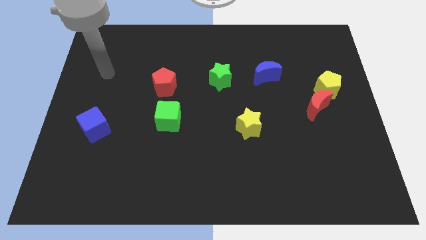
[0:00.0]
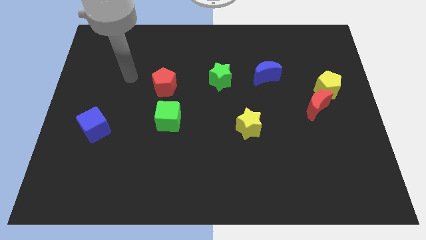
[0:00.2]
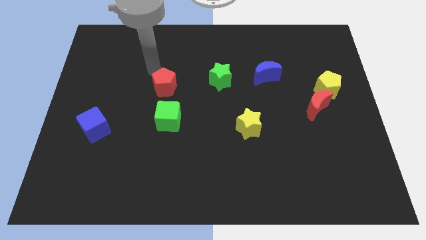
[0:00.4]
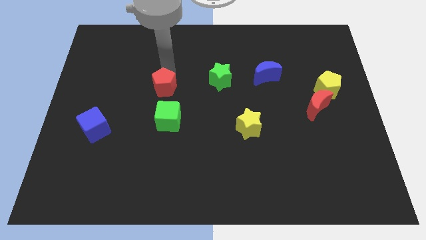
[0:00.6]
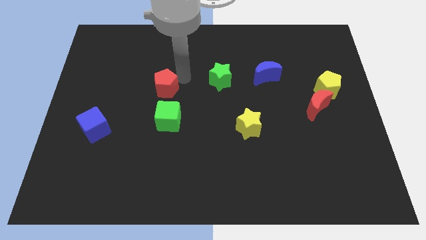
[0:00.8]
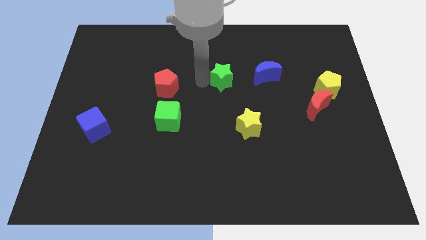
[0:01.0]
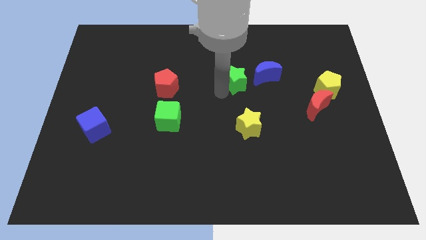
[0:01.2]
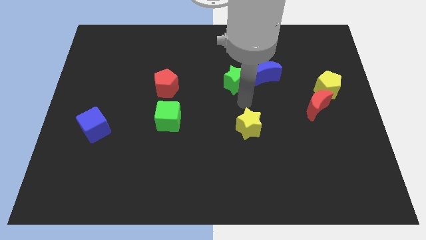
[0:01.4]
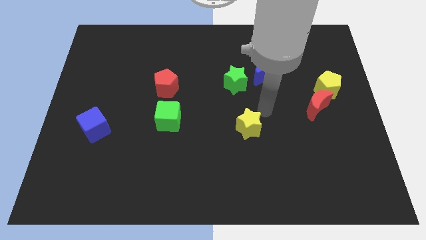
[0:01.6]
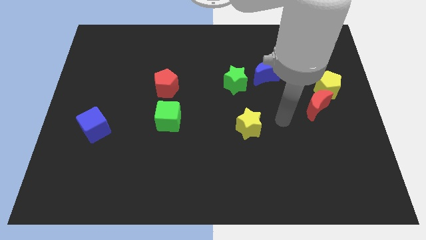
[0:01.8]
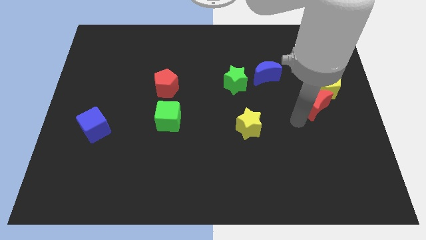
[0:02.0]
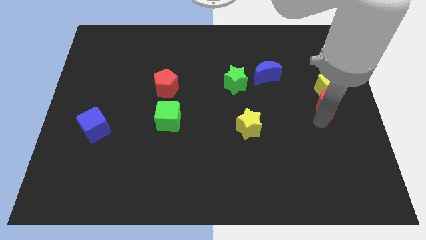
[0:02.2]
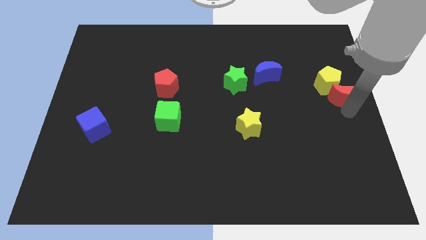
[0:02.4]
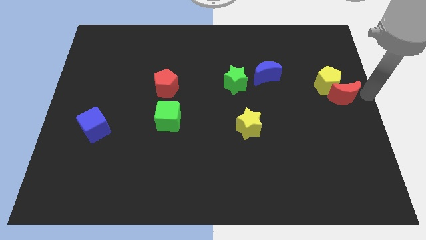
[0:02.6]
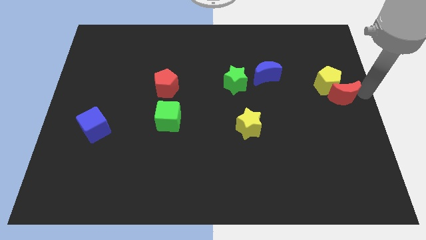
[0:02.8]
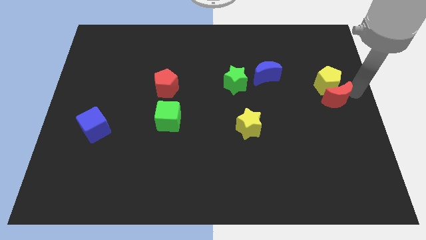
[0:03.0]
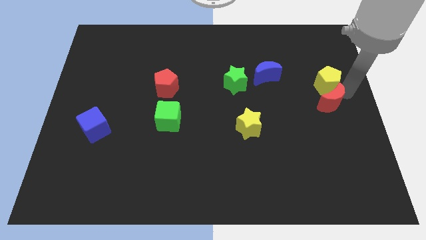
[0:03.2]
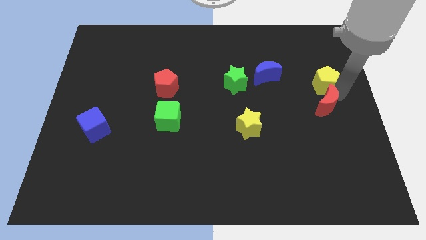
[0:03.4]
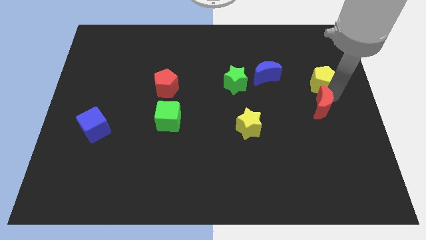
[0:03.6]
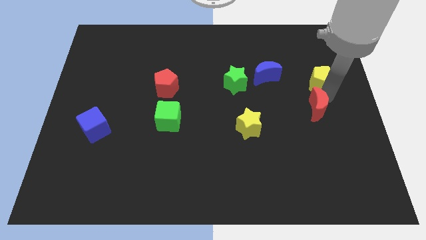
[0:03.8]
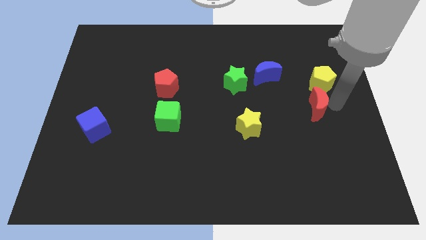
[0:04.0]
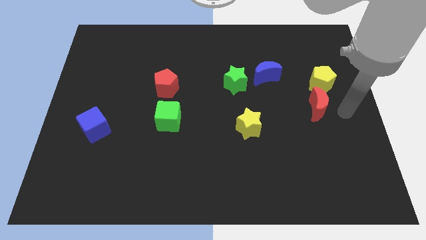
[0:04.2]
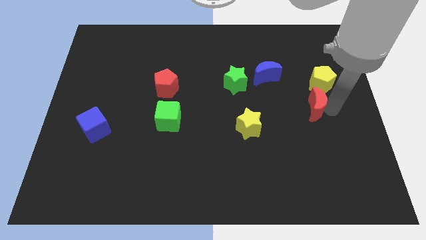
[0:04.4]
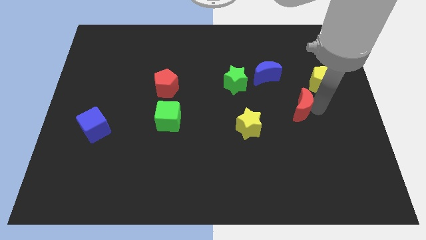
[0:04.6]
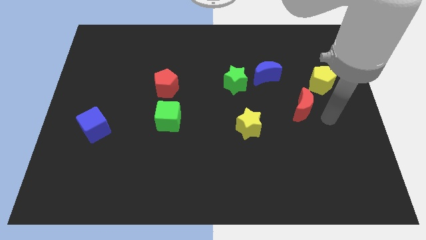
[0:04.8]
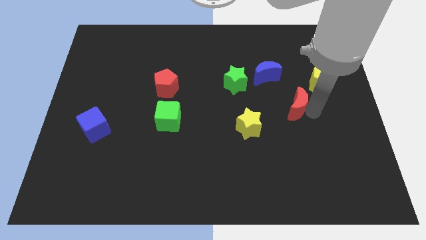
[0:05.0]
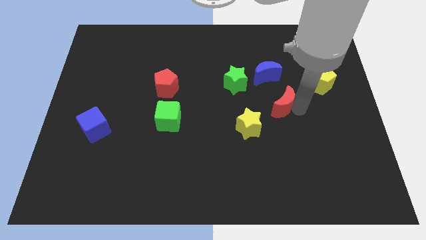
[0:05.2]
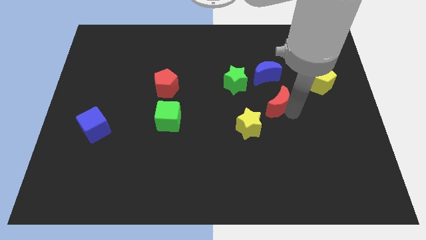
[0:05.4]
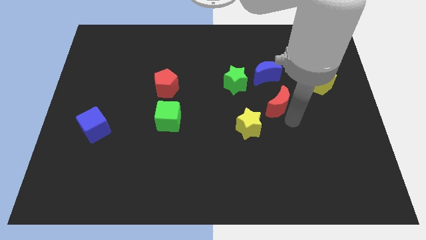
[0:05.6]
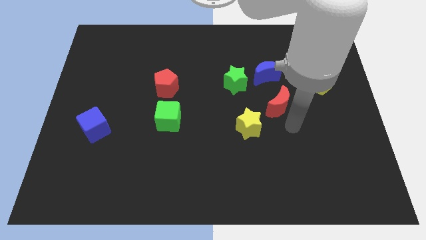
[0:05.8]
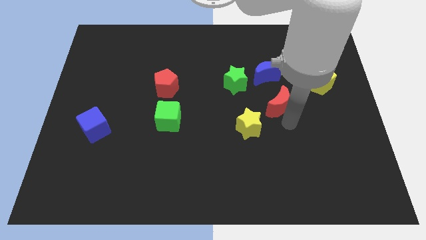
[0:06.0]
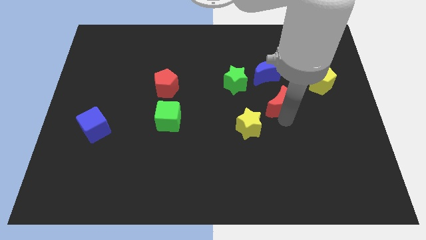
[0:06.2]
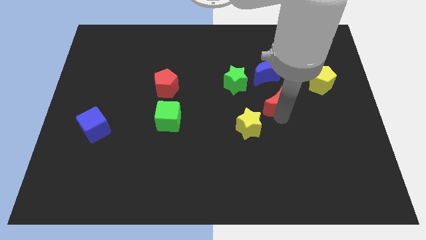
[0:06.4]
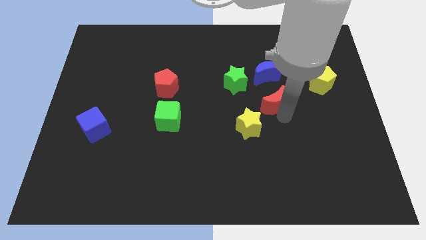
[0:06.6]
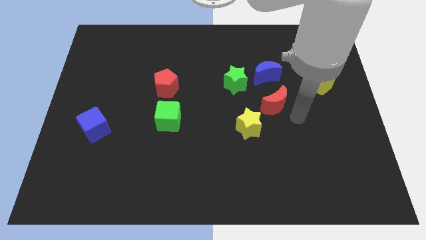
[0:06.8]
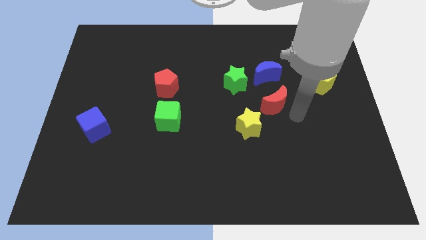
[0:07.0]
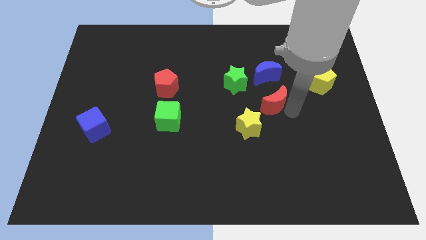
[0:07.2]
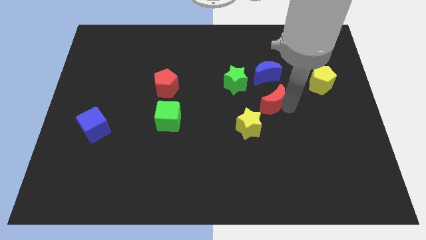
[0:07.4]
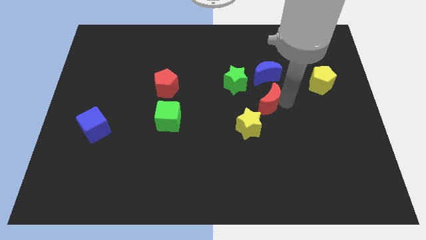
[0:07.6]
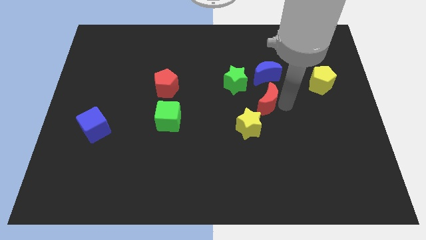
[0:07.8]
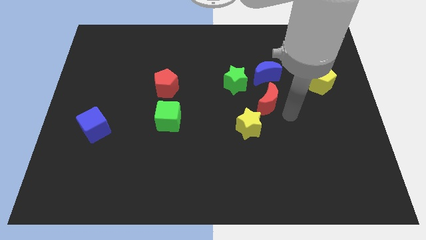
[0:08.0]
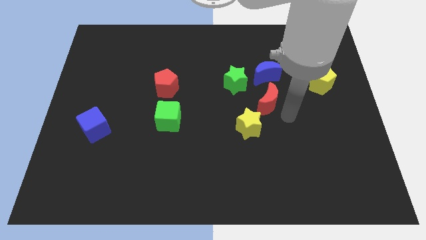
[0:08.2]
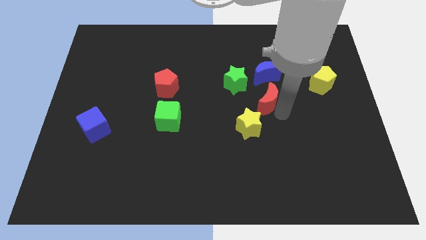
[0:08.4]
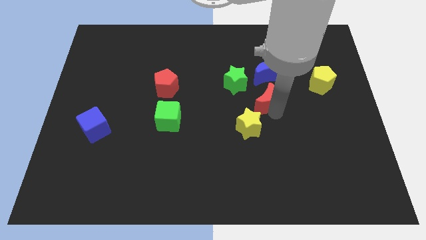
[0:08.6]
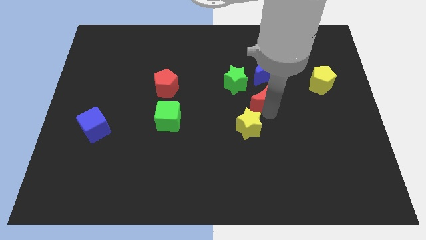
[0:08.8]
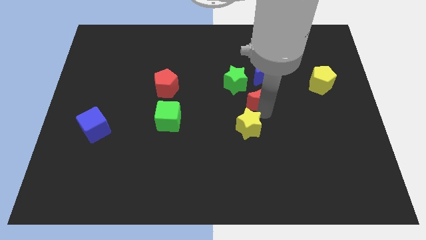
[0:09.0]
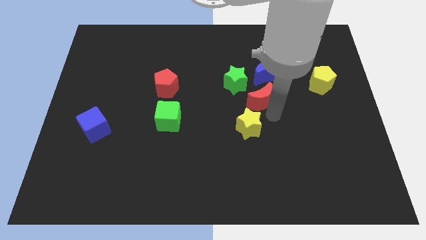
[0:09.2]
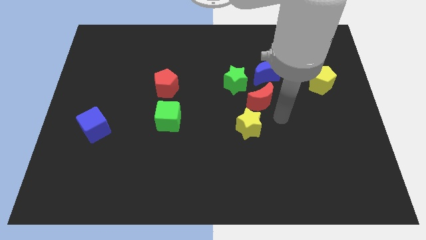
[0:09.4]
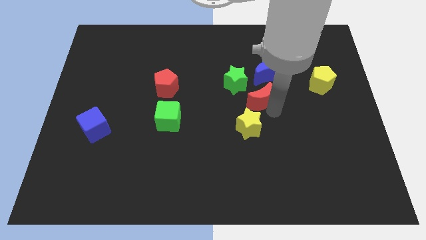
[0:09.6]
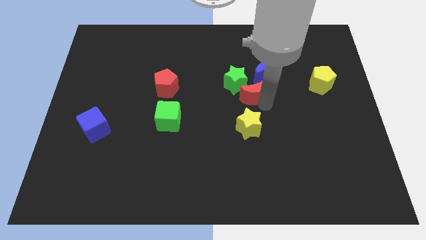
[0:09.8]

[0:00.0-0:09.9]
move the red moon next to the green star

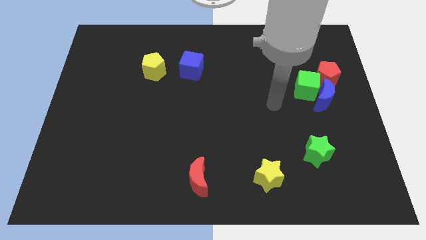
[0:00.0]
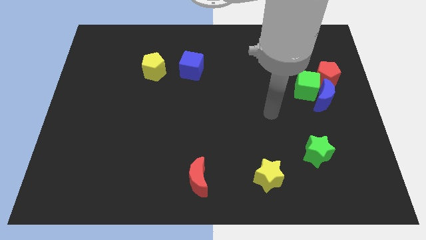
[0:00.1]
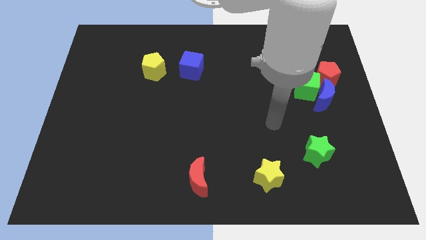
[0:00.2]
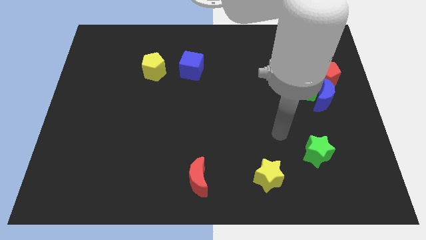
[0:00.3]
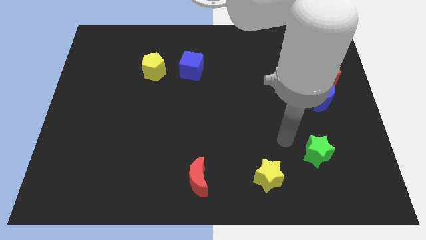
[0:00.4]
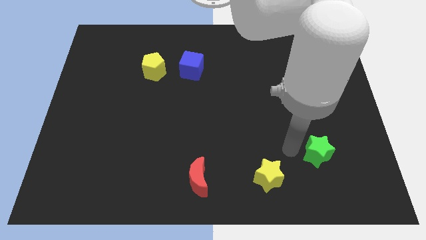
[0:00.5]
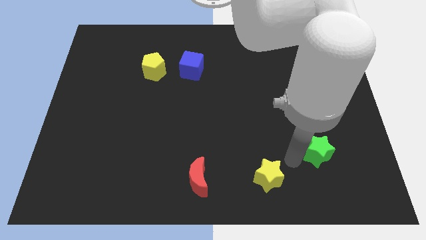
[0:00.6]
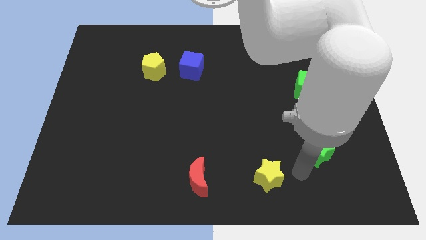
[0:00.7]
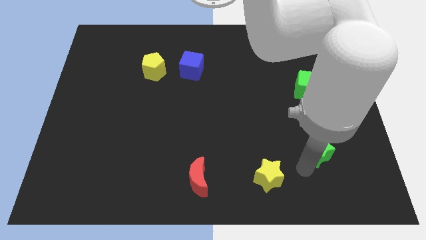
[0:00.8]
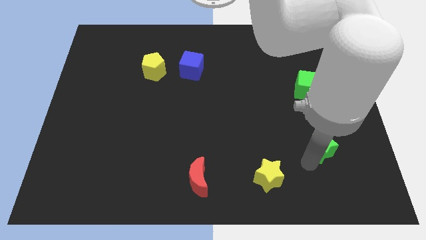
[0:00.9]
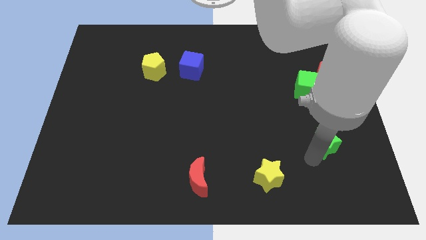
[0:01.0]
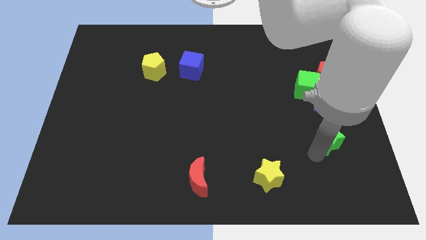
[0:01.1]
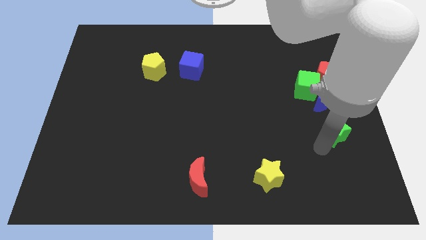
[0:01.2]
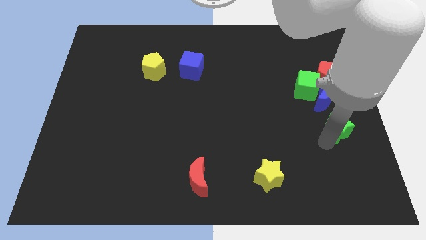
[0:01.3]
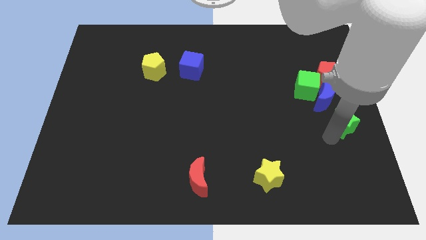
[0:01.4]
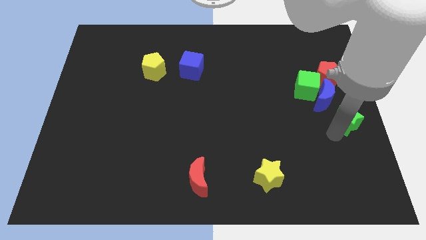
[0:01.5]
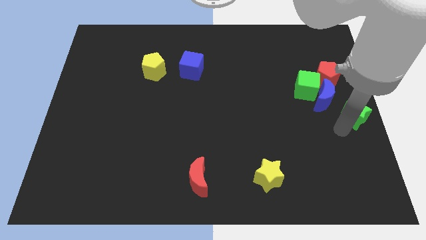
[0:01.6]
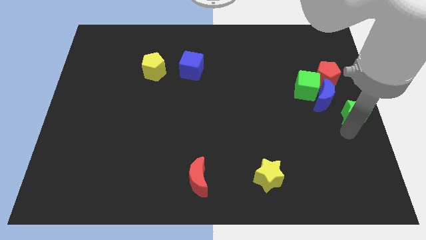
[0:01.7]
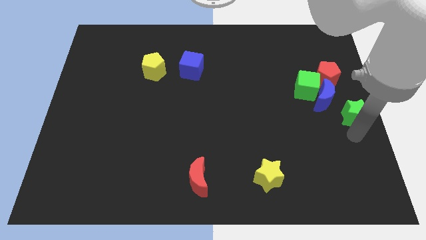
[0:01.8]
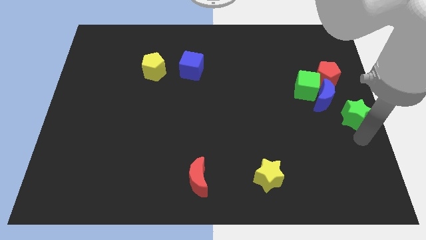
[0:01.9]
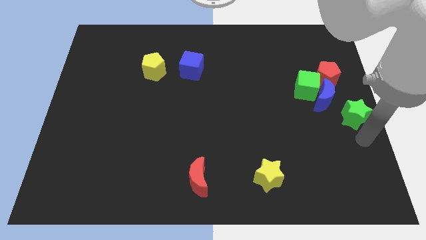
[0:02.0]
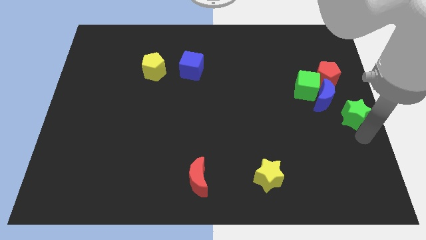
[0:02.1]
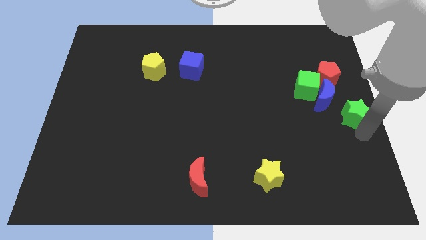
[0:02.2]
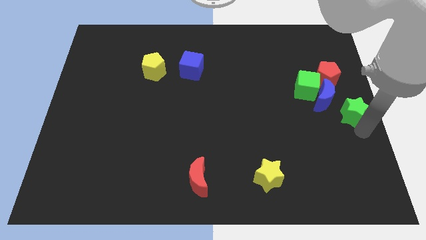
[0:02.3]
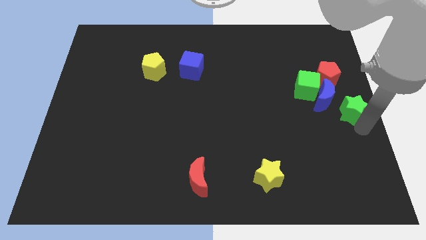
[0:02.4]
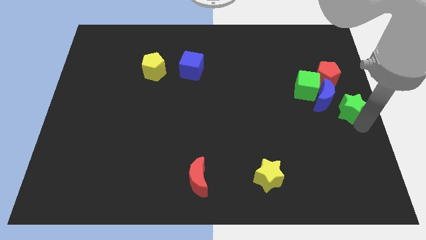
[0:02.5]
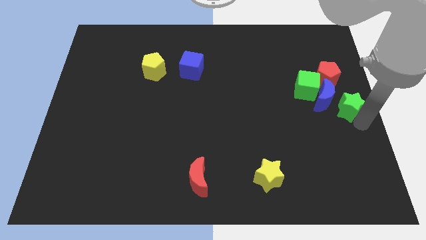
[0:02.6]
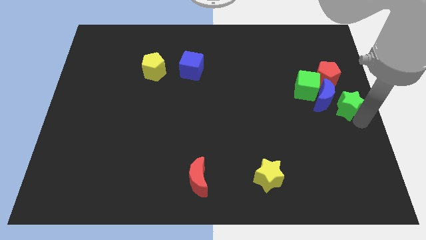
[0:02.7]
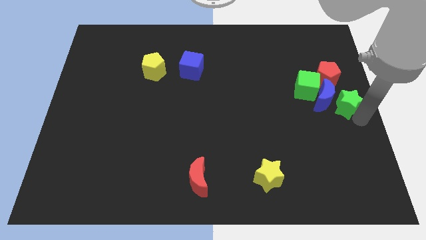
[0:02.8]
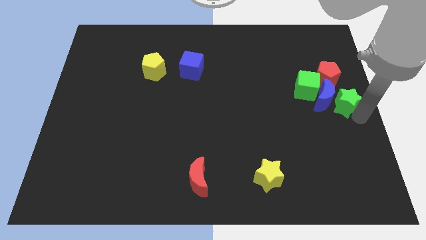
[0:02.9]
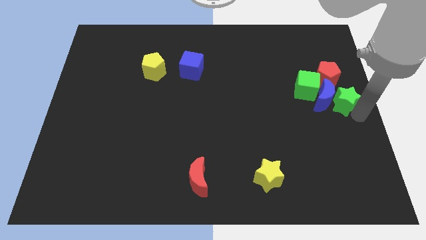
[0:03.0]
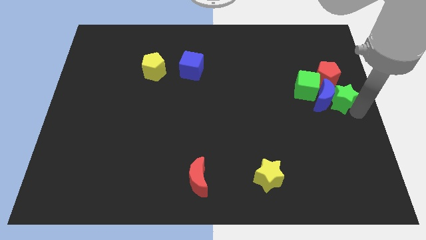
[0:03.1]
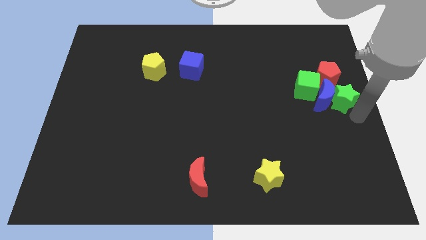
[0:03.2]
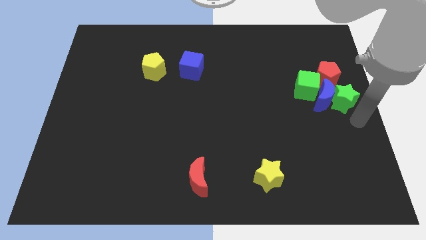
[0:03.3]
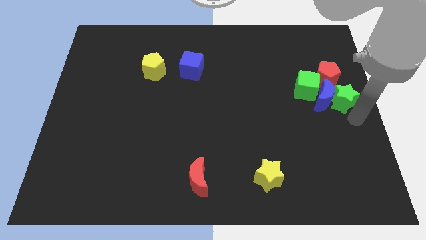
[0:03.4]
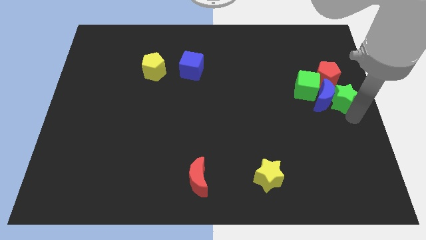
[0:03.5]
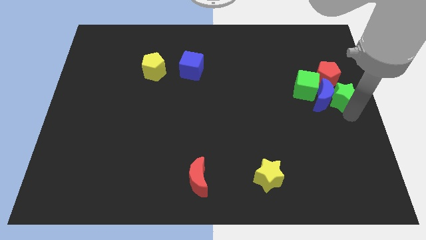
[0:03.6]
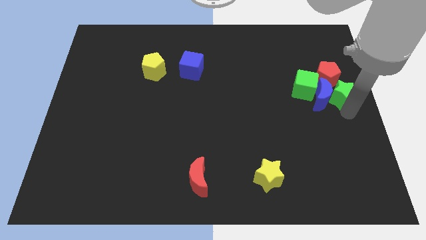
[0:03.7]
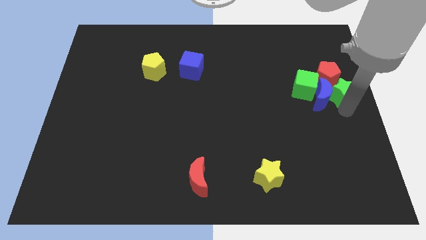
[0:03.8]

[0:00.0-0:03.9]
move the green star to the red pentagon
